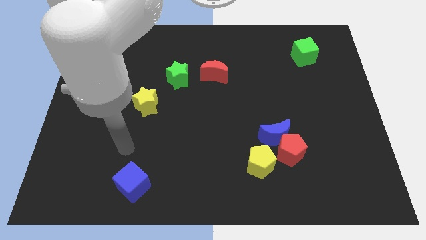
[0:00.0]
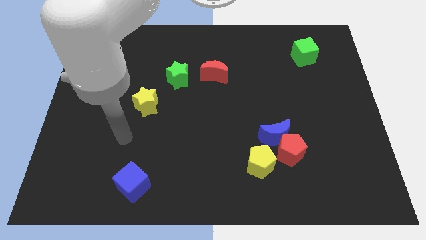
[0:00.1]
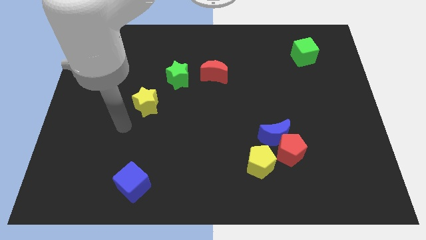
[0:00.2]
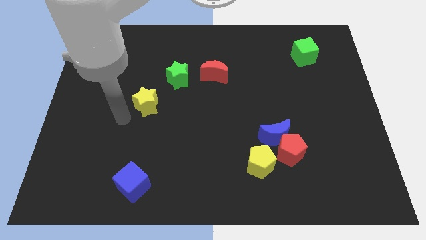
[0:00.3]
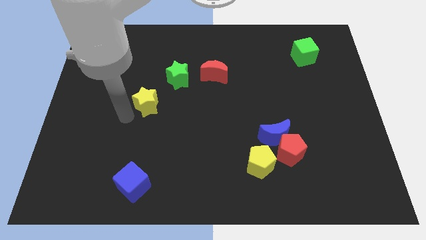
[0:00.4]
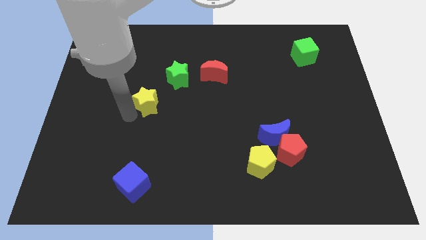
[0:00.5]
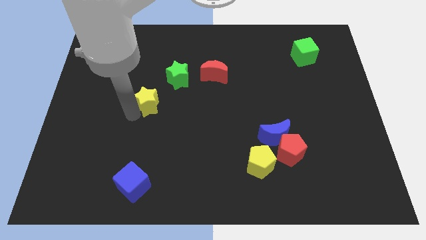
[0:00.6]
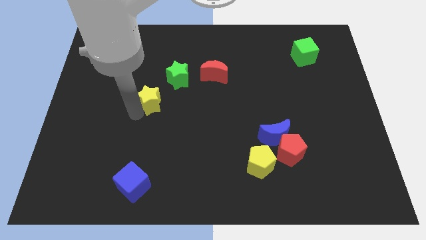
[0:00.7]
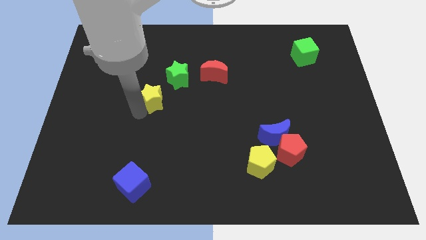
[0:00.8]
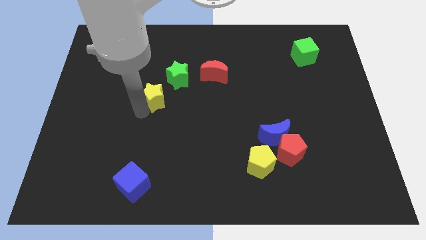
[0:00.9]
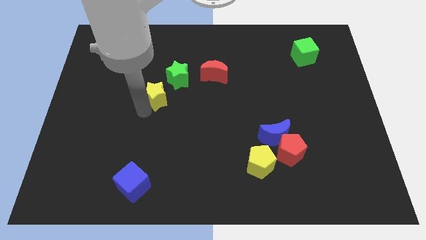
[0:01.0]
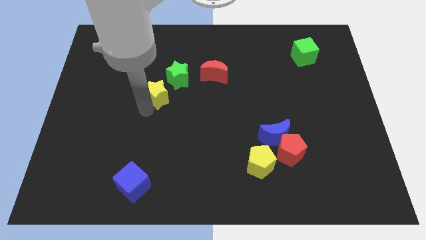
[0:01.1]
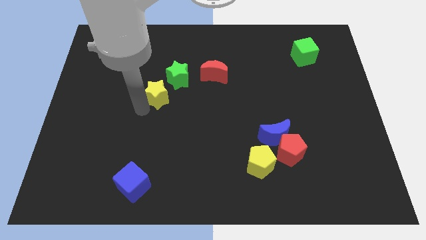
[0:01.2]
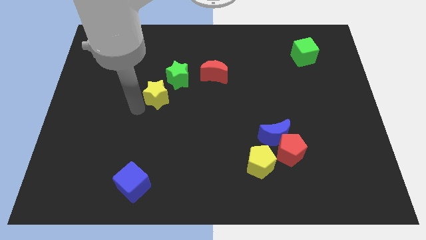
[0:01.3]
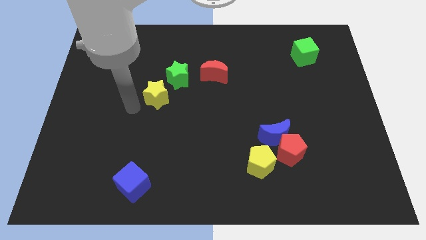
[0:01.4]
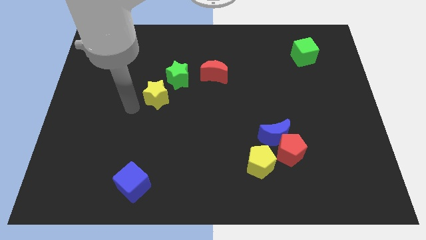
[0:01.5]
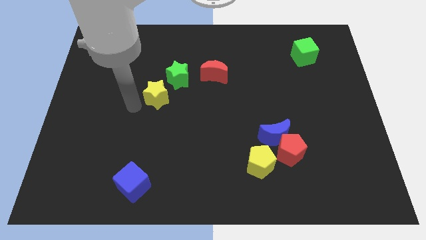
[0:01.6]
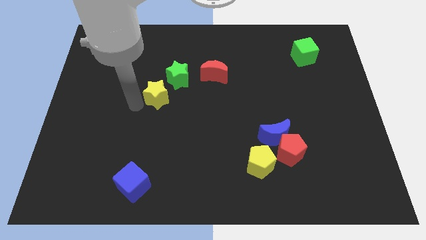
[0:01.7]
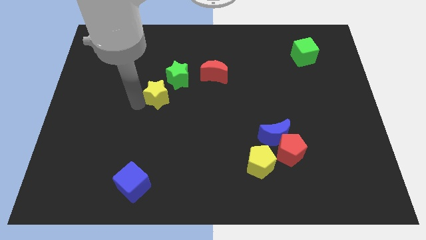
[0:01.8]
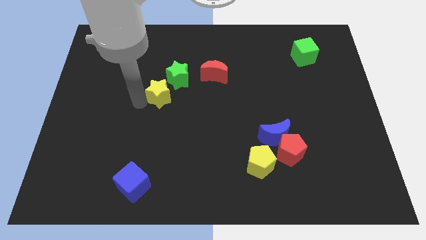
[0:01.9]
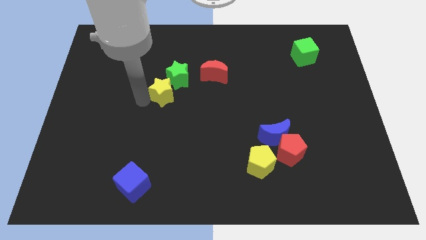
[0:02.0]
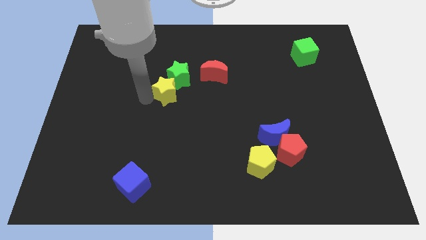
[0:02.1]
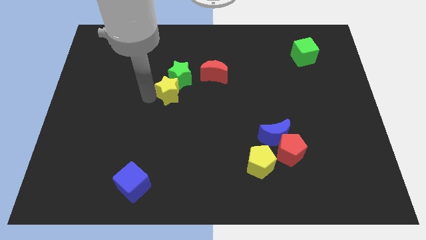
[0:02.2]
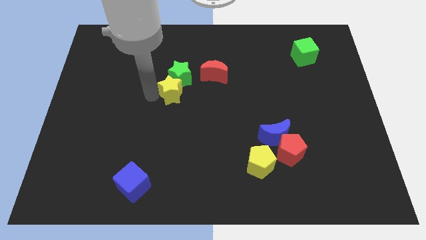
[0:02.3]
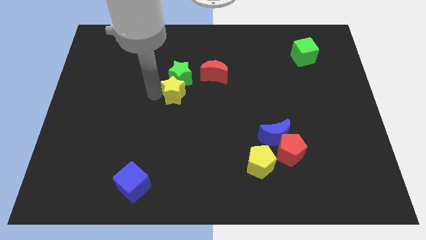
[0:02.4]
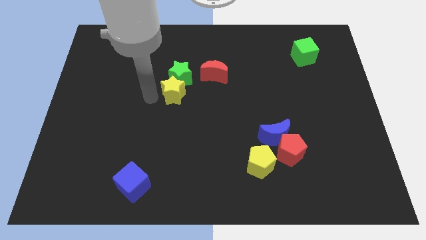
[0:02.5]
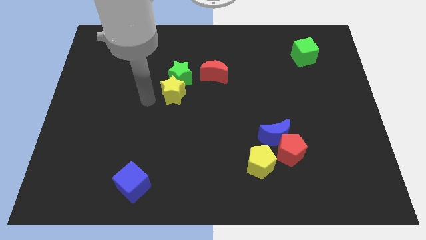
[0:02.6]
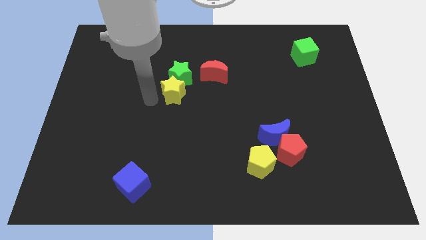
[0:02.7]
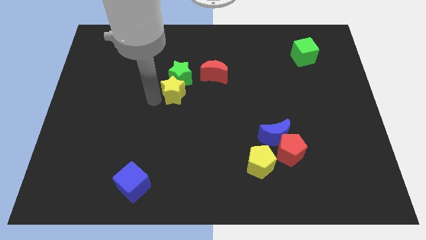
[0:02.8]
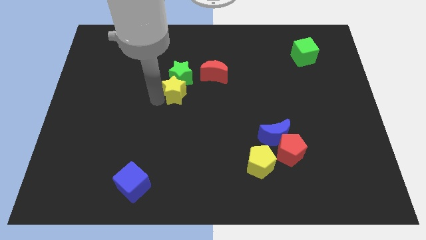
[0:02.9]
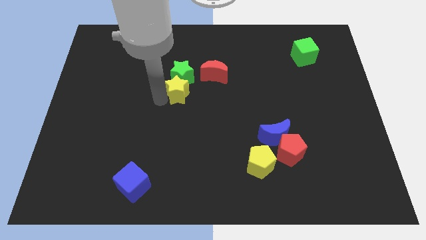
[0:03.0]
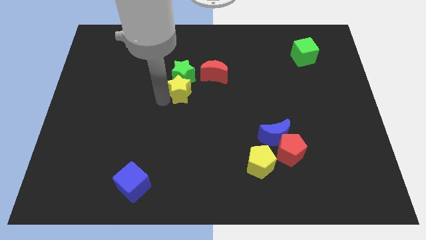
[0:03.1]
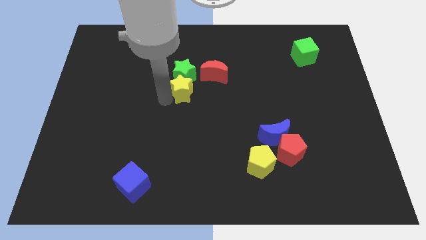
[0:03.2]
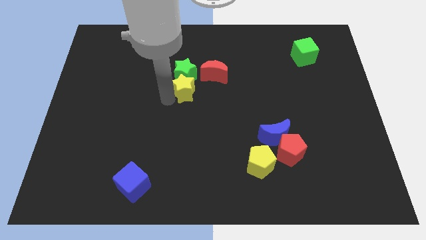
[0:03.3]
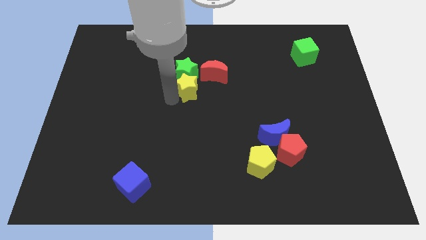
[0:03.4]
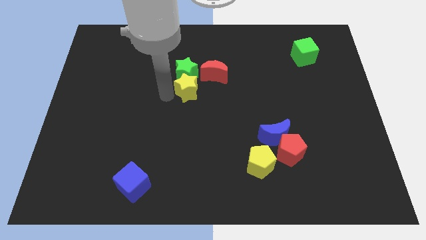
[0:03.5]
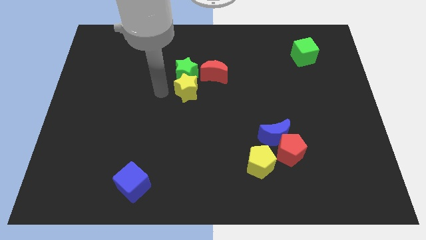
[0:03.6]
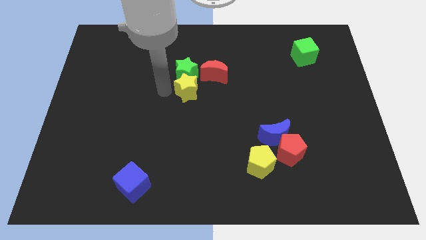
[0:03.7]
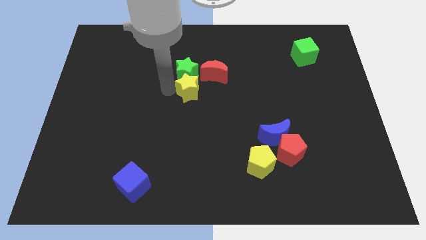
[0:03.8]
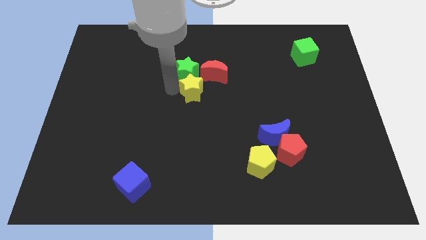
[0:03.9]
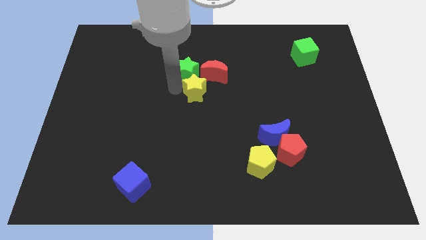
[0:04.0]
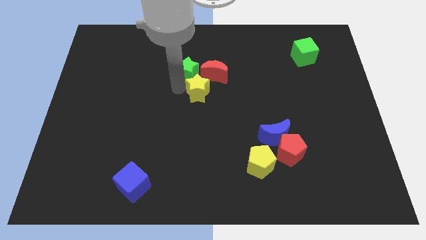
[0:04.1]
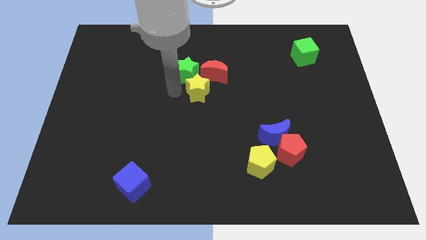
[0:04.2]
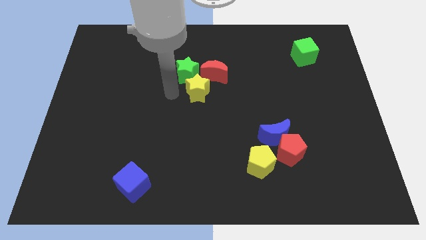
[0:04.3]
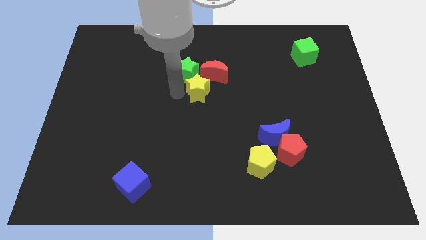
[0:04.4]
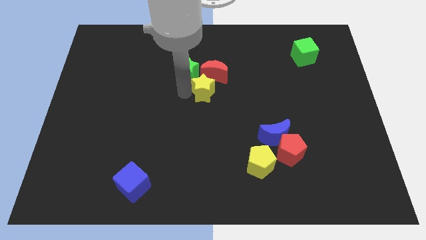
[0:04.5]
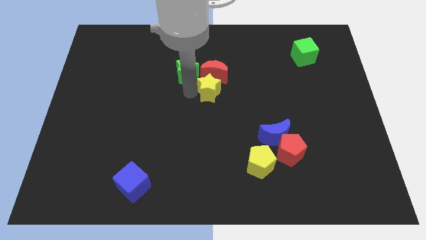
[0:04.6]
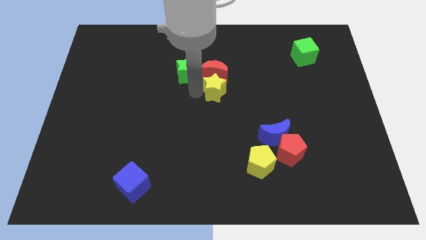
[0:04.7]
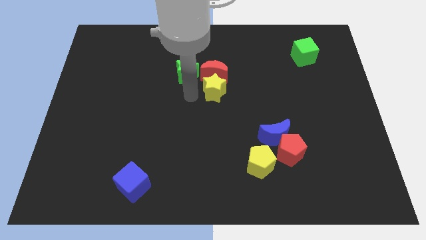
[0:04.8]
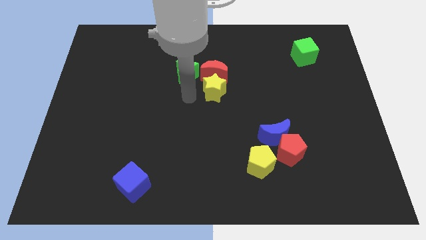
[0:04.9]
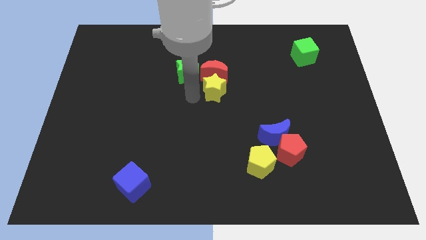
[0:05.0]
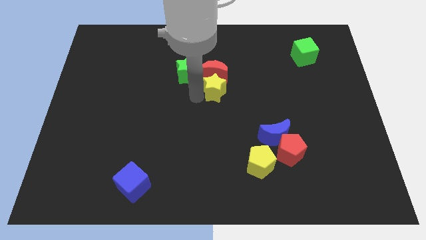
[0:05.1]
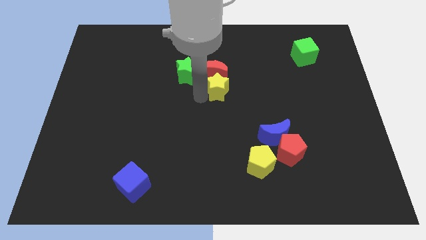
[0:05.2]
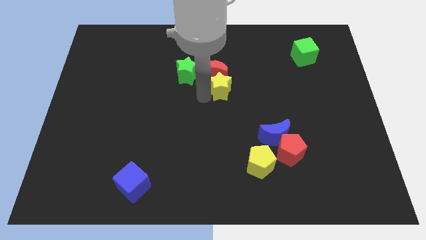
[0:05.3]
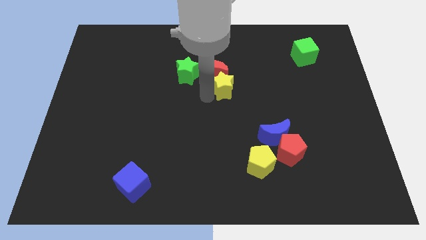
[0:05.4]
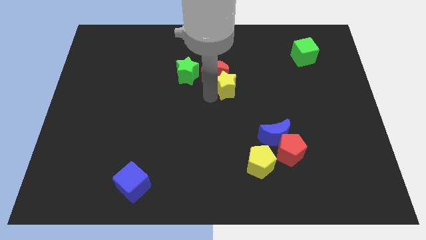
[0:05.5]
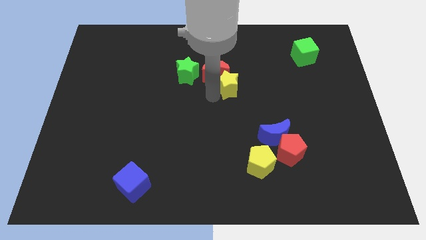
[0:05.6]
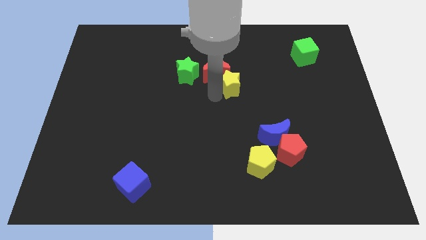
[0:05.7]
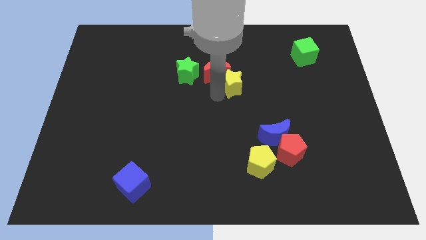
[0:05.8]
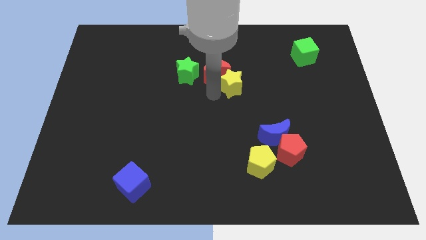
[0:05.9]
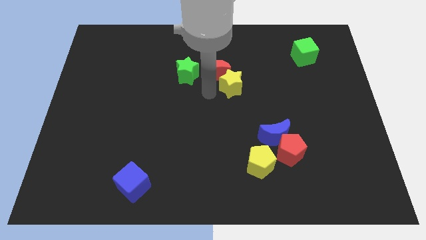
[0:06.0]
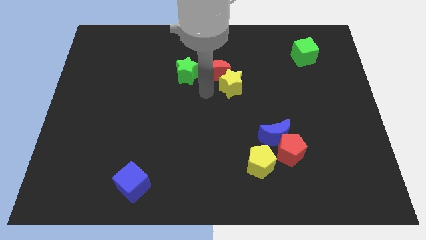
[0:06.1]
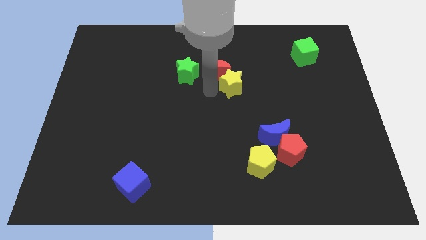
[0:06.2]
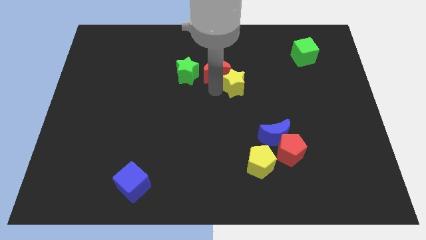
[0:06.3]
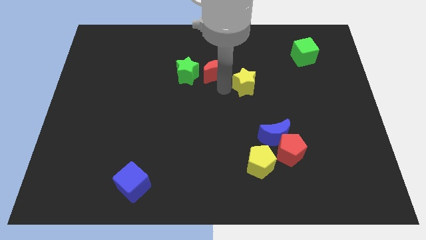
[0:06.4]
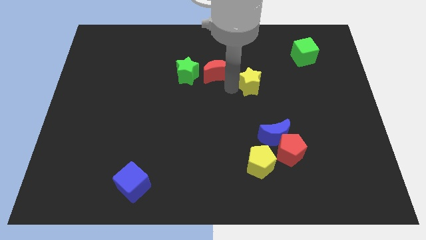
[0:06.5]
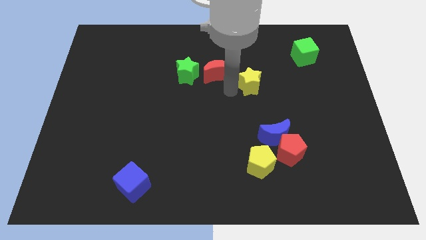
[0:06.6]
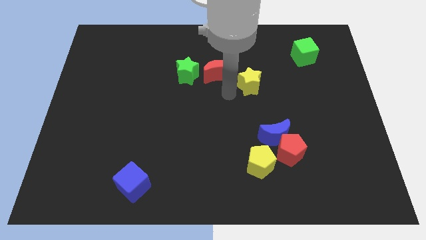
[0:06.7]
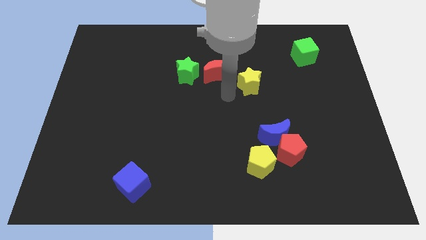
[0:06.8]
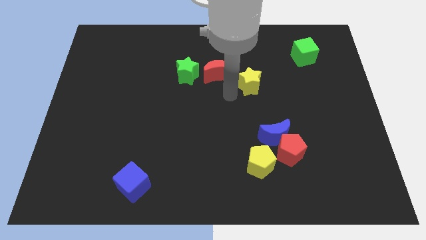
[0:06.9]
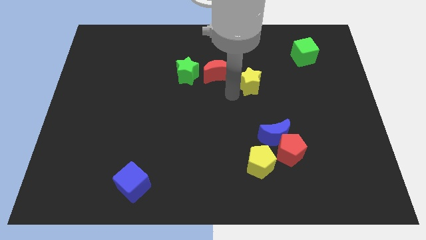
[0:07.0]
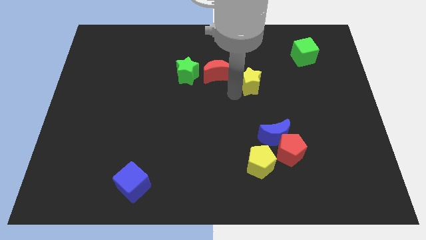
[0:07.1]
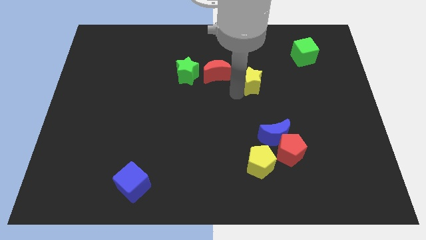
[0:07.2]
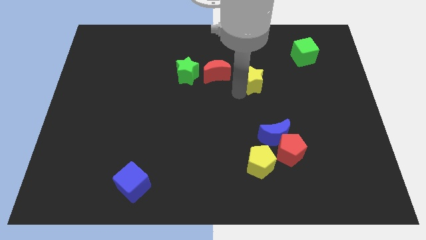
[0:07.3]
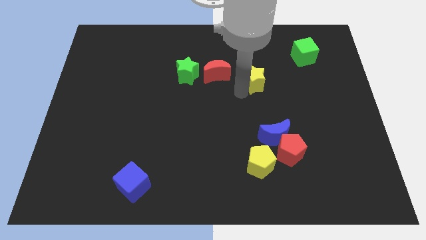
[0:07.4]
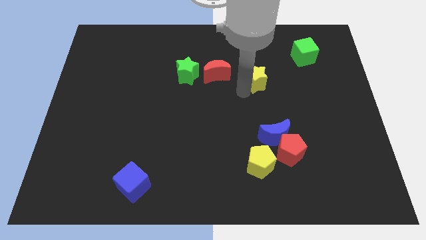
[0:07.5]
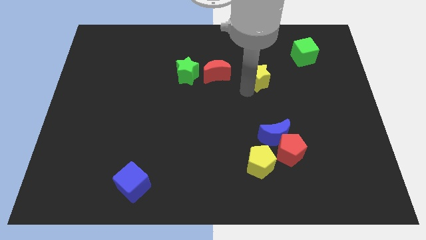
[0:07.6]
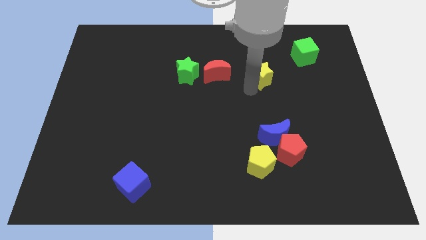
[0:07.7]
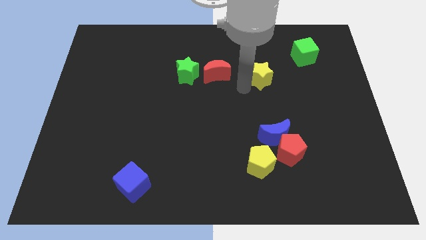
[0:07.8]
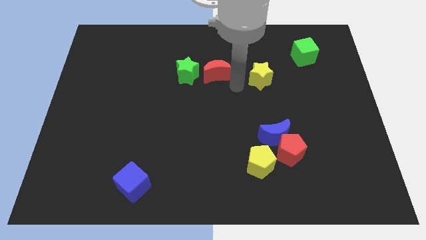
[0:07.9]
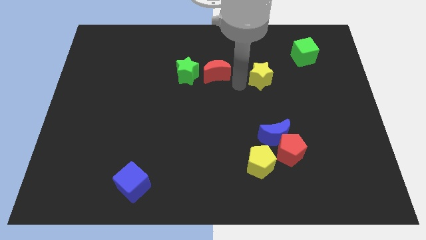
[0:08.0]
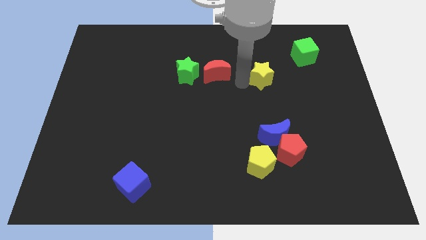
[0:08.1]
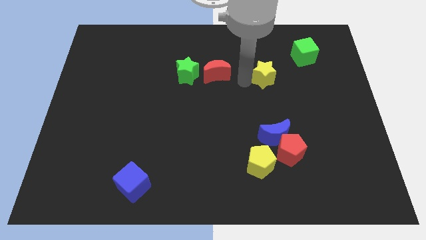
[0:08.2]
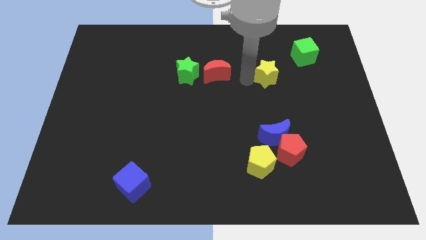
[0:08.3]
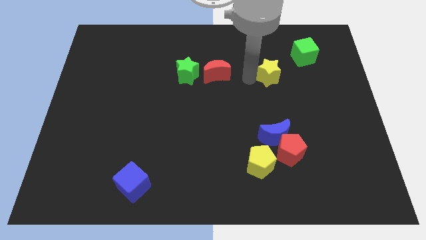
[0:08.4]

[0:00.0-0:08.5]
put the yellow star to the bottom left of the green cube

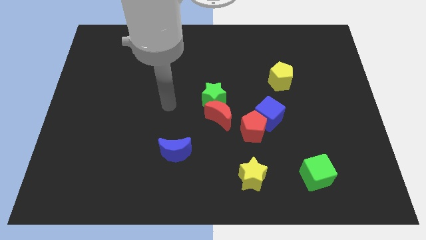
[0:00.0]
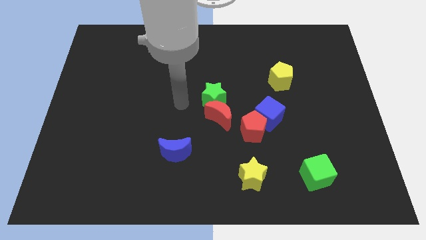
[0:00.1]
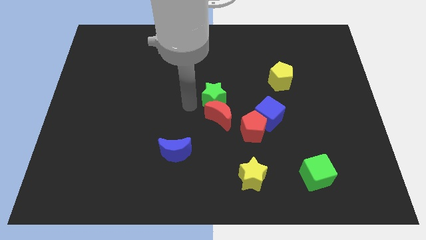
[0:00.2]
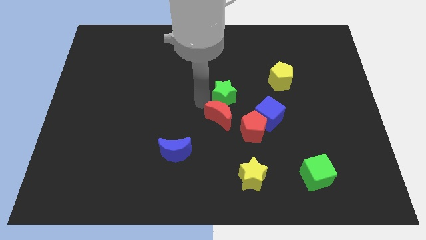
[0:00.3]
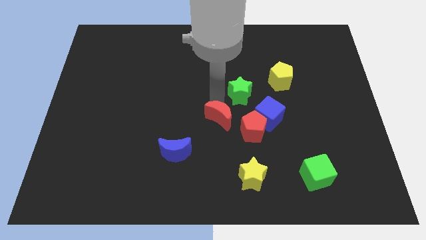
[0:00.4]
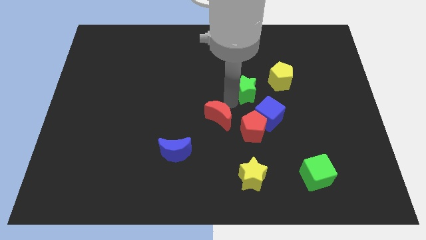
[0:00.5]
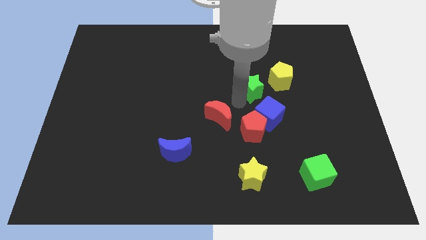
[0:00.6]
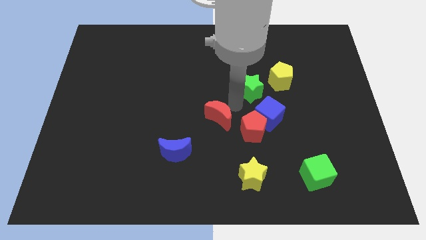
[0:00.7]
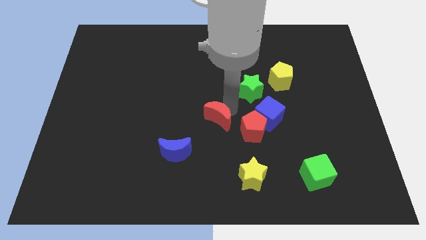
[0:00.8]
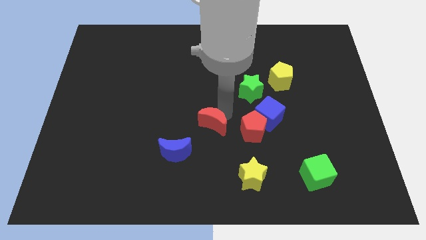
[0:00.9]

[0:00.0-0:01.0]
slide the red moon to the top right side of the blue moon
